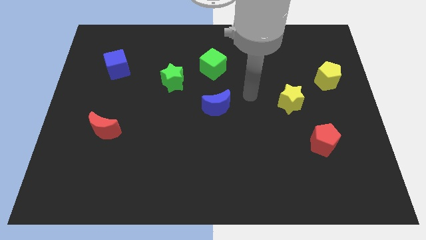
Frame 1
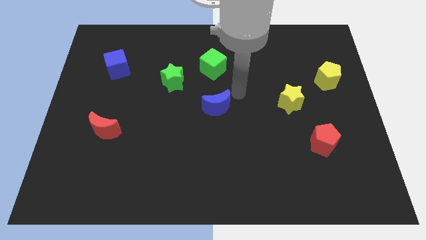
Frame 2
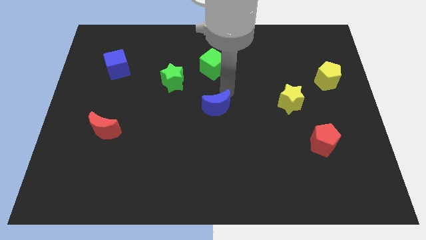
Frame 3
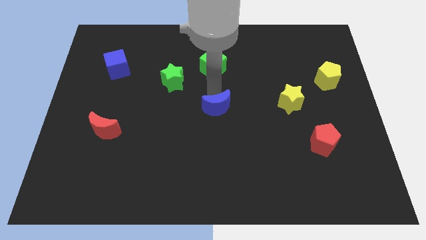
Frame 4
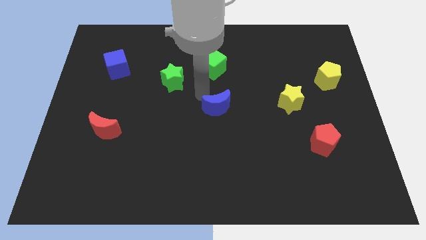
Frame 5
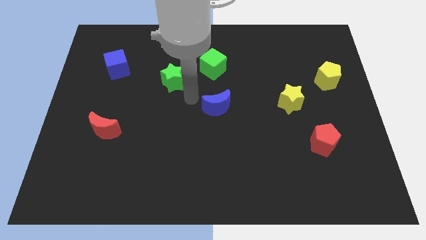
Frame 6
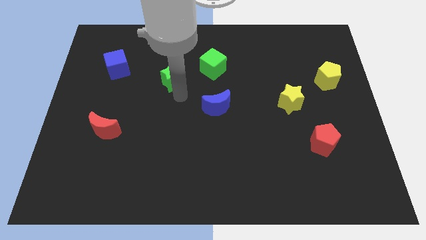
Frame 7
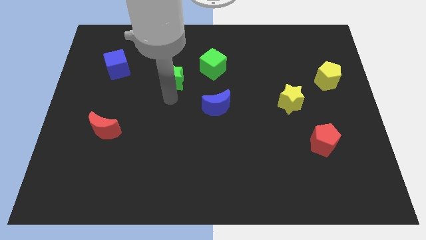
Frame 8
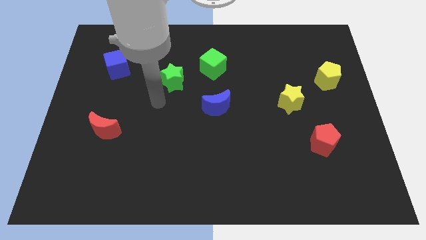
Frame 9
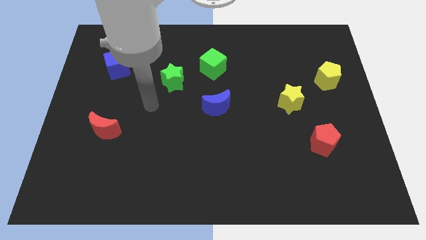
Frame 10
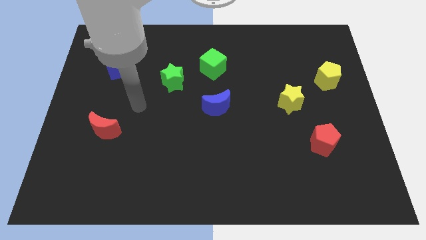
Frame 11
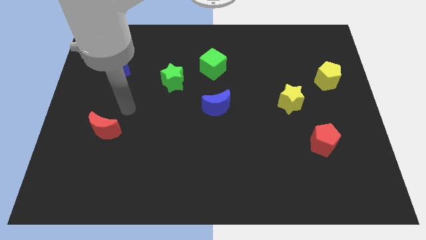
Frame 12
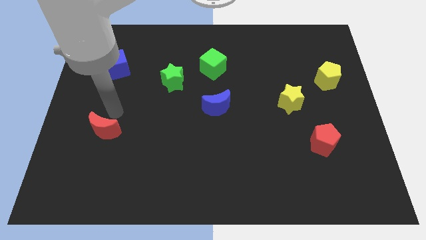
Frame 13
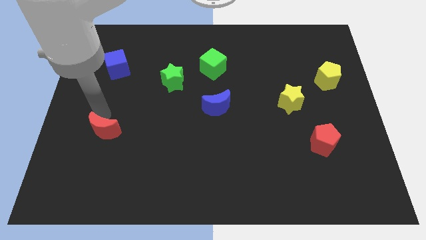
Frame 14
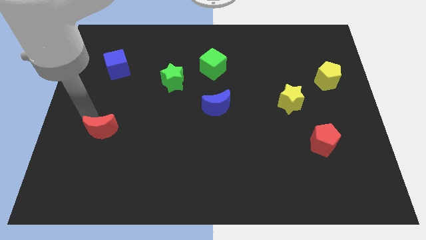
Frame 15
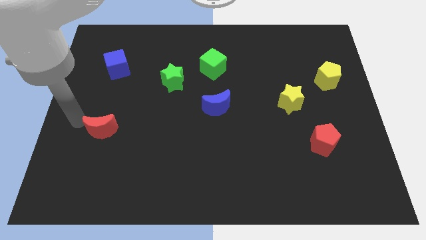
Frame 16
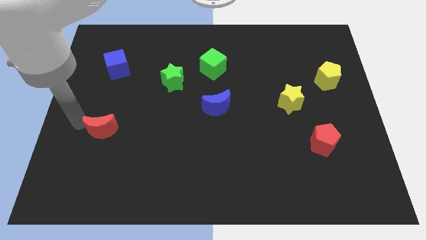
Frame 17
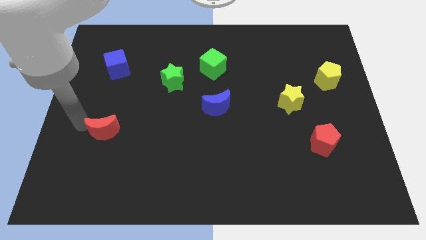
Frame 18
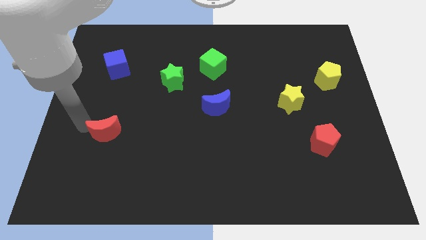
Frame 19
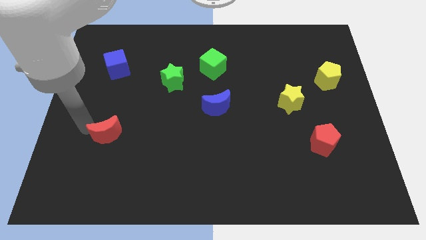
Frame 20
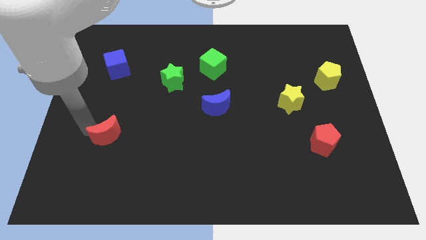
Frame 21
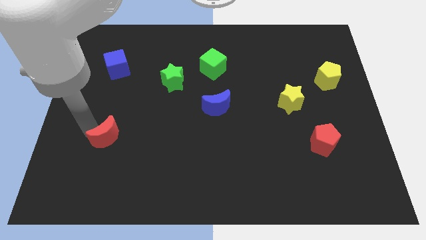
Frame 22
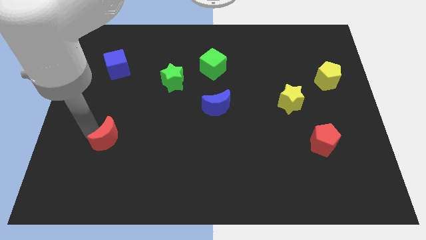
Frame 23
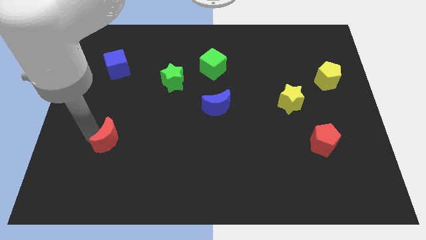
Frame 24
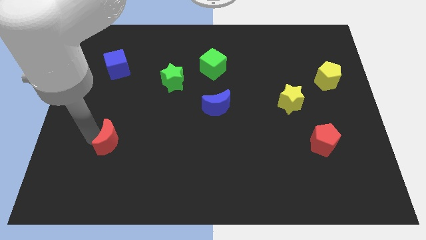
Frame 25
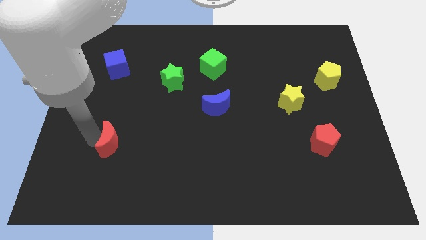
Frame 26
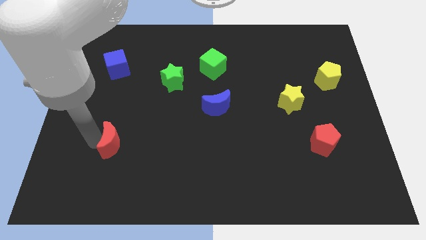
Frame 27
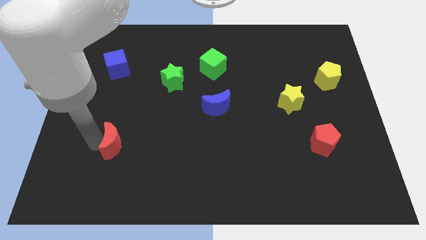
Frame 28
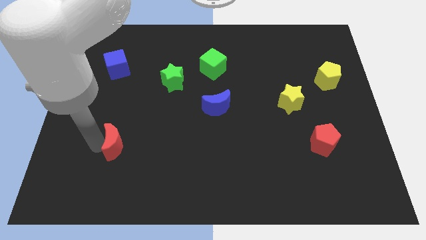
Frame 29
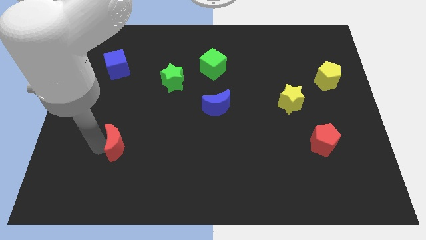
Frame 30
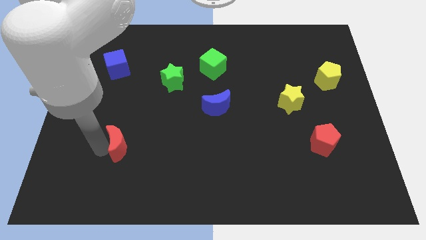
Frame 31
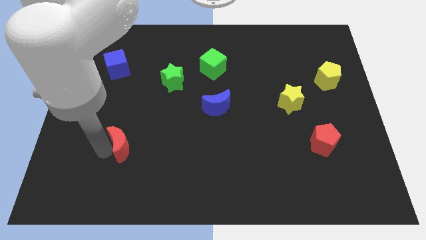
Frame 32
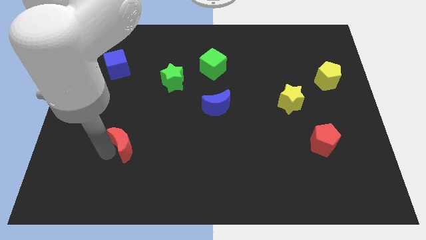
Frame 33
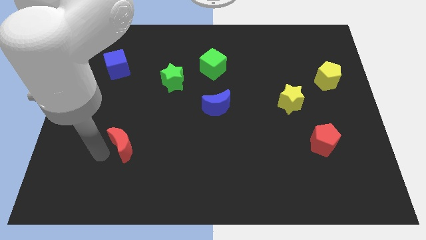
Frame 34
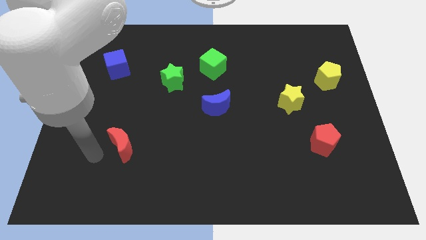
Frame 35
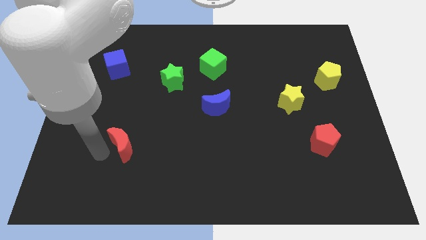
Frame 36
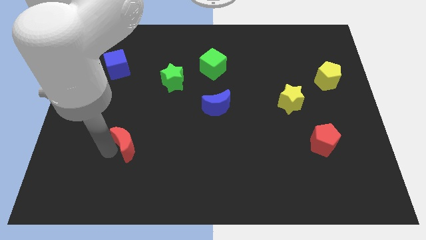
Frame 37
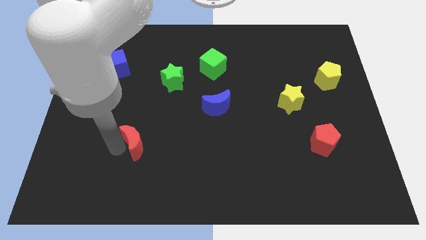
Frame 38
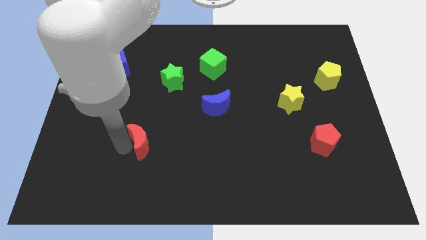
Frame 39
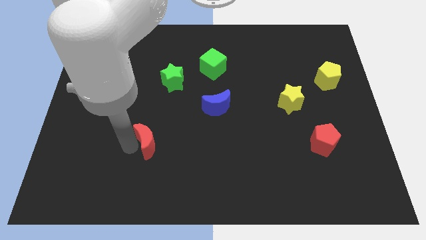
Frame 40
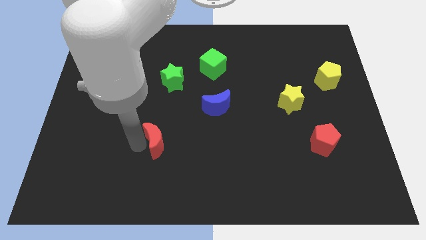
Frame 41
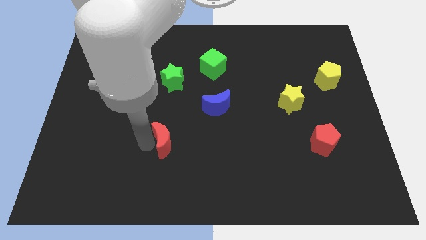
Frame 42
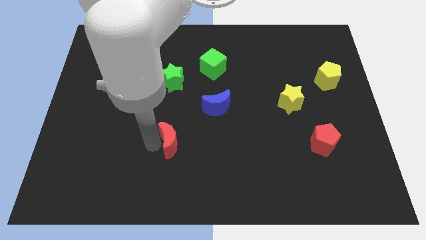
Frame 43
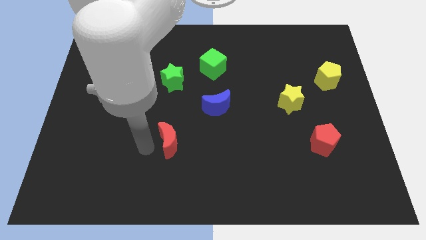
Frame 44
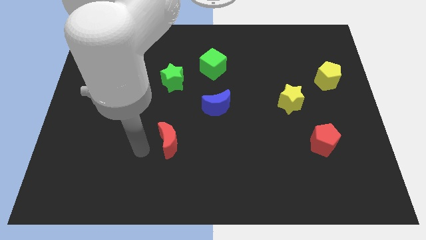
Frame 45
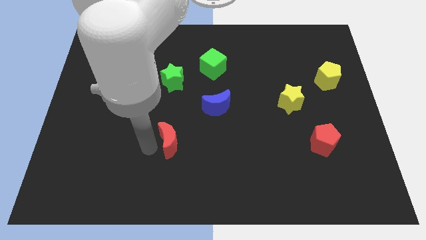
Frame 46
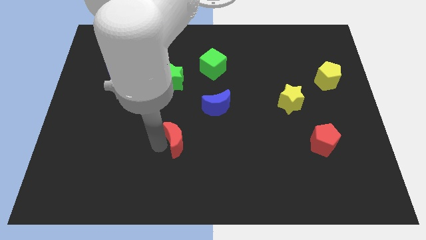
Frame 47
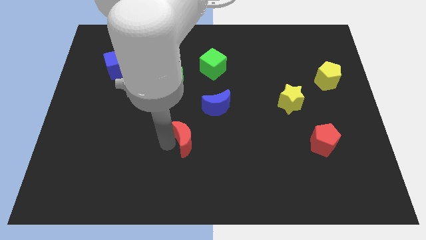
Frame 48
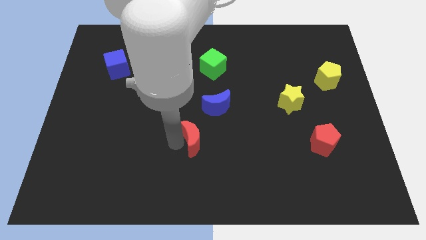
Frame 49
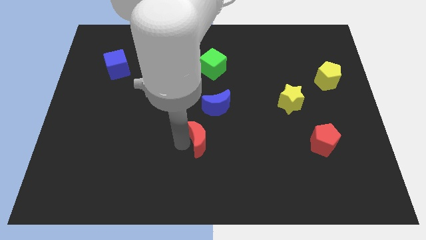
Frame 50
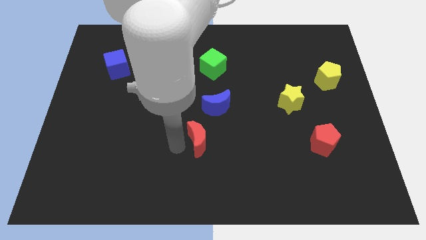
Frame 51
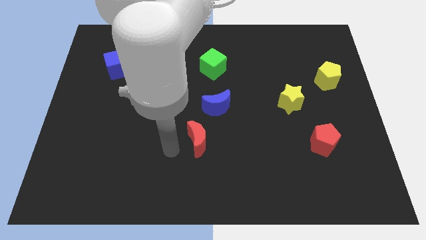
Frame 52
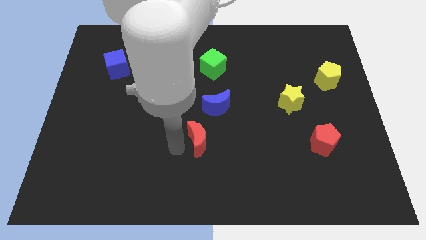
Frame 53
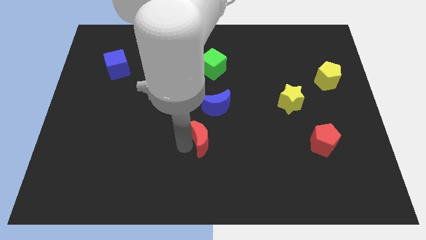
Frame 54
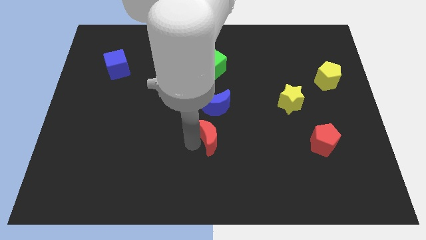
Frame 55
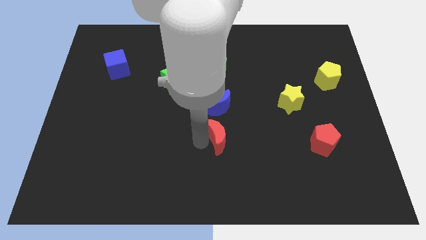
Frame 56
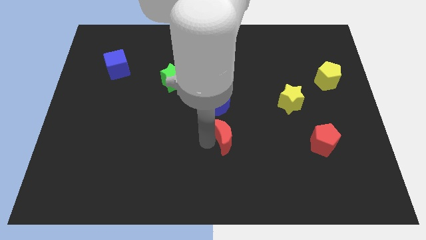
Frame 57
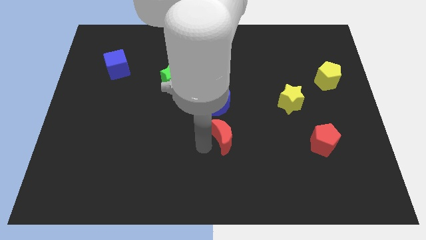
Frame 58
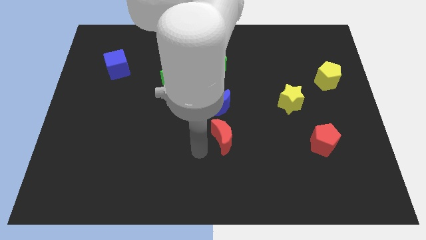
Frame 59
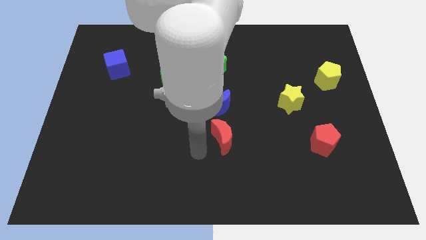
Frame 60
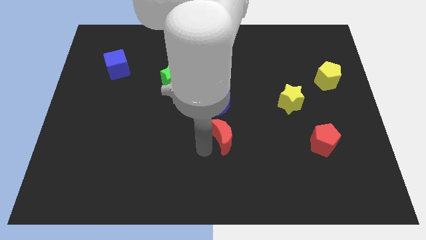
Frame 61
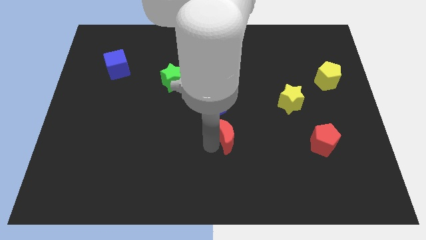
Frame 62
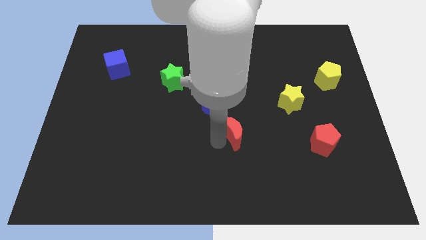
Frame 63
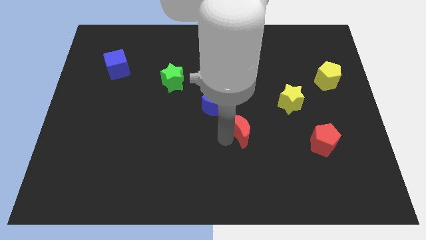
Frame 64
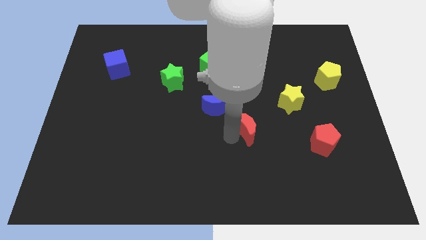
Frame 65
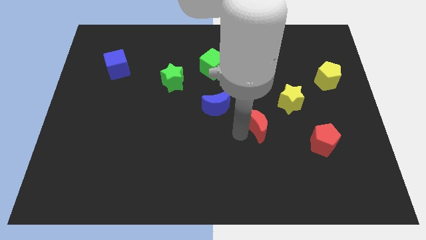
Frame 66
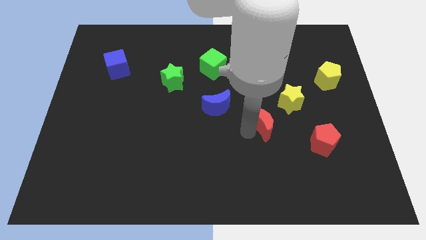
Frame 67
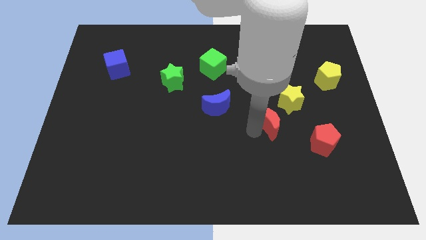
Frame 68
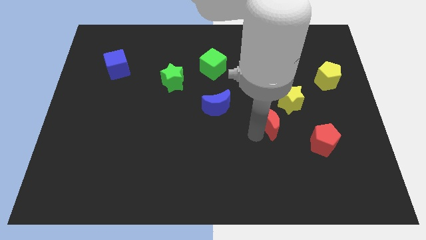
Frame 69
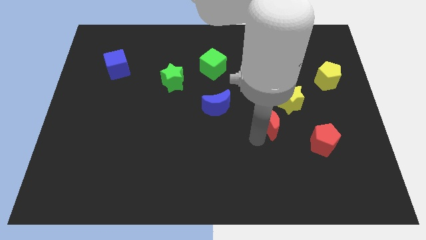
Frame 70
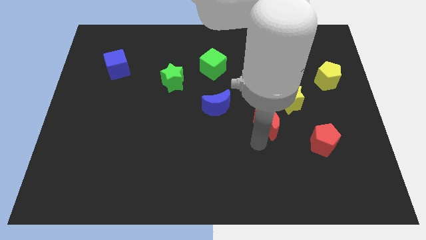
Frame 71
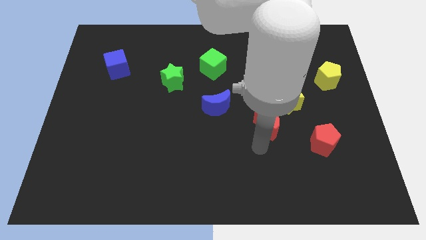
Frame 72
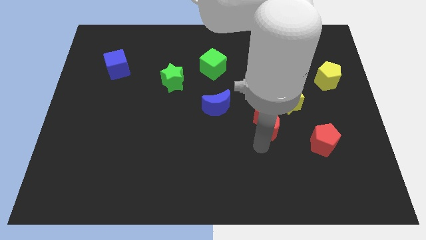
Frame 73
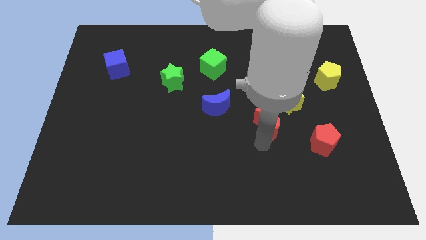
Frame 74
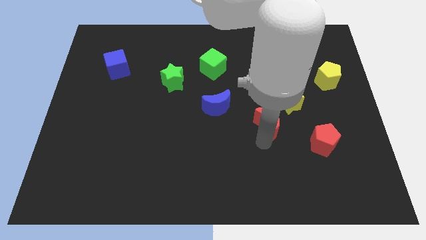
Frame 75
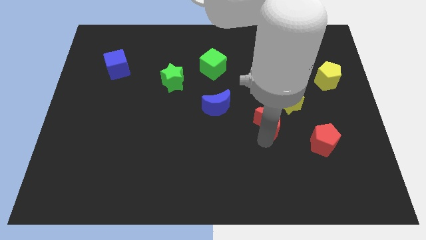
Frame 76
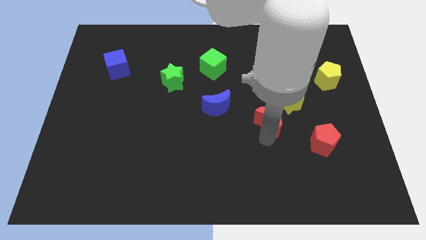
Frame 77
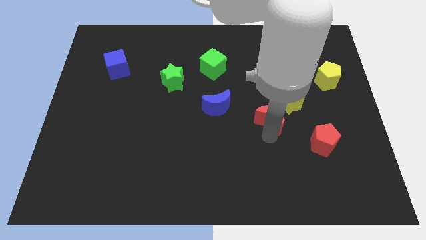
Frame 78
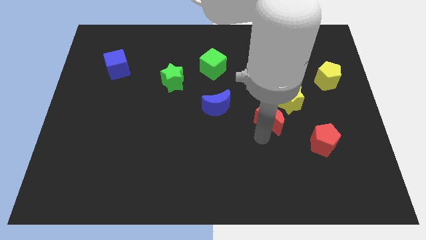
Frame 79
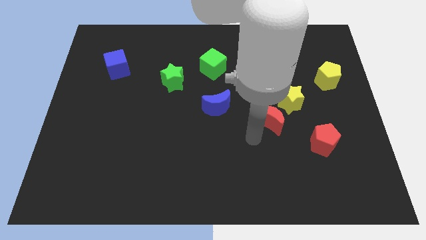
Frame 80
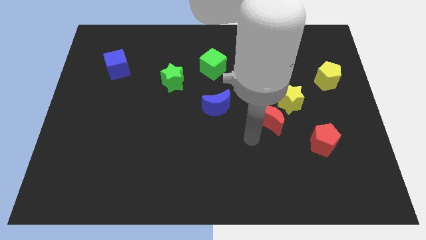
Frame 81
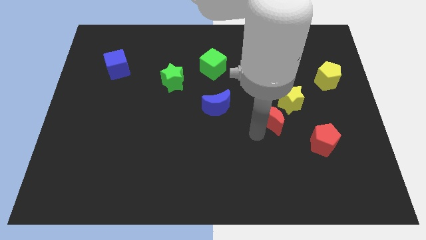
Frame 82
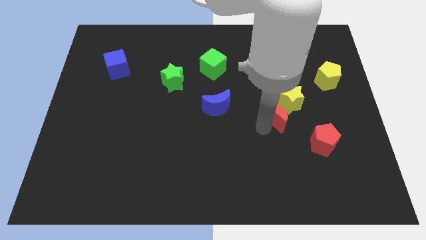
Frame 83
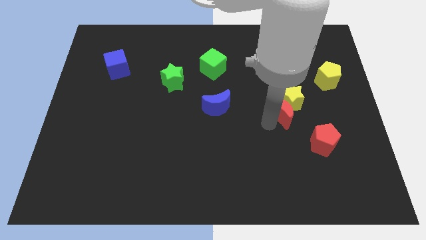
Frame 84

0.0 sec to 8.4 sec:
slide the red moon to the yellow star
